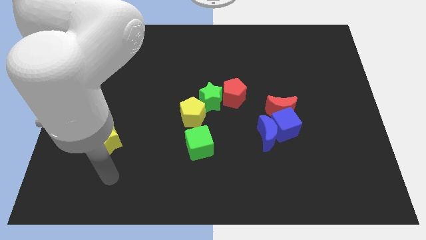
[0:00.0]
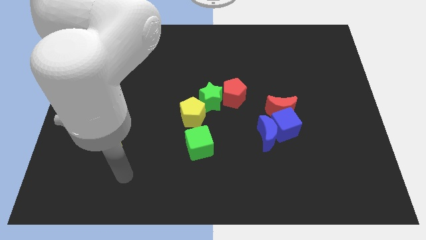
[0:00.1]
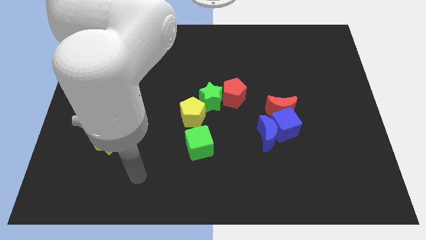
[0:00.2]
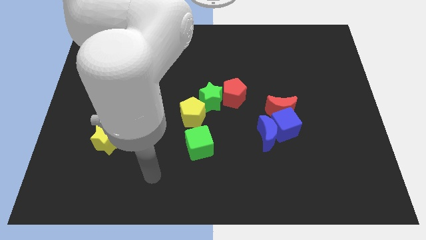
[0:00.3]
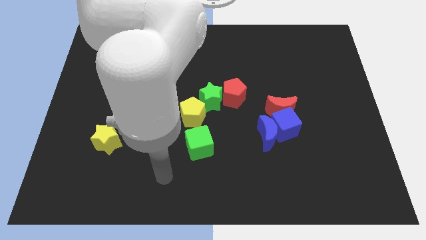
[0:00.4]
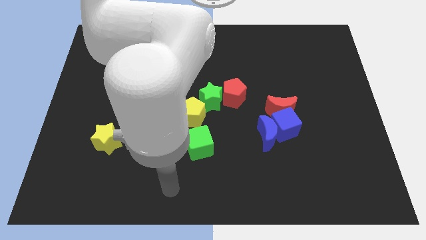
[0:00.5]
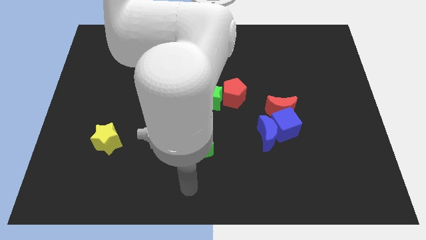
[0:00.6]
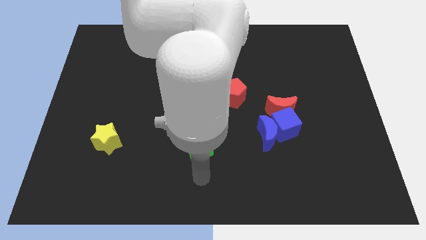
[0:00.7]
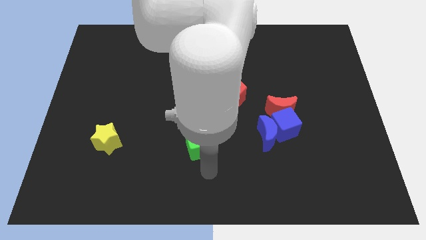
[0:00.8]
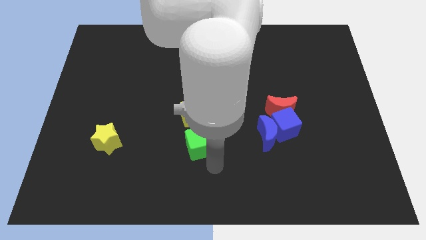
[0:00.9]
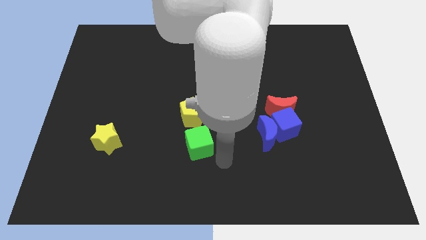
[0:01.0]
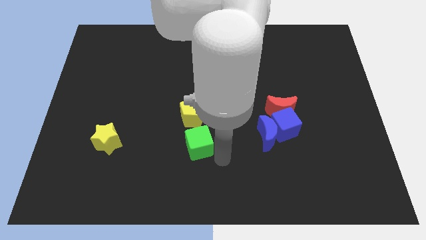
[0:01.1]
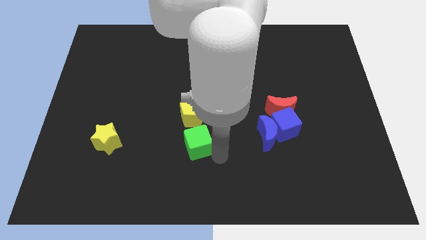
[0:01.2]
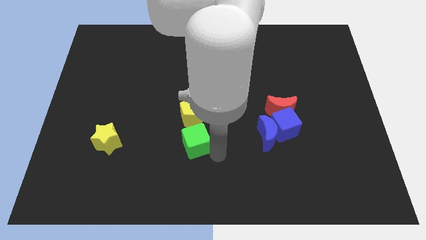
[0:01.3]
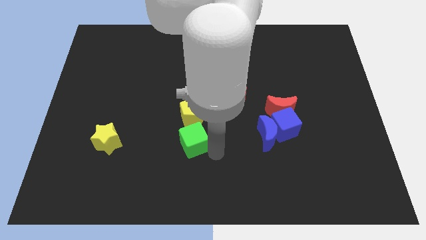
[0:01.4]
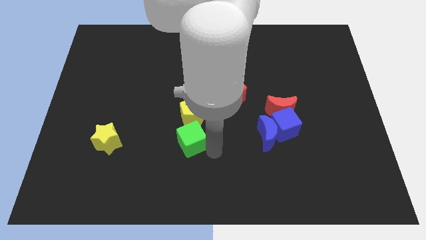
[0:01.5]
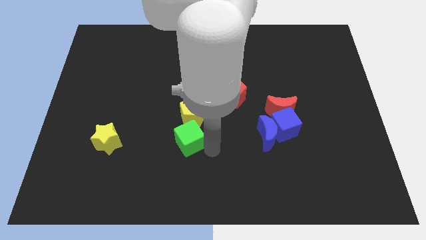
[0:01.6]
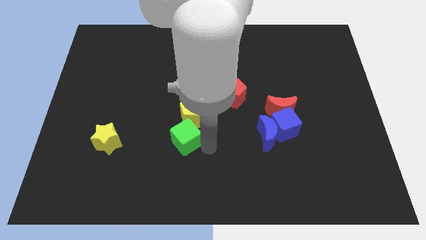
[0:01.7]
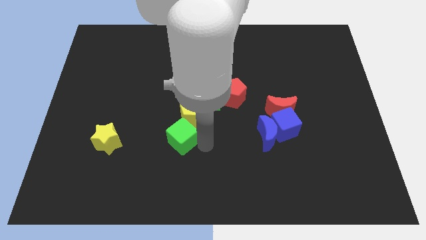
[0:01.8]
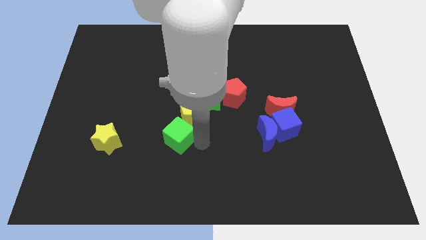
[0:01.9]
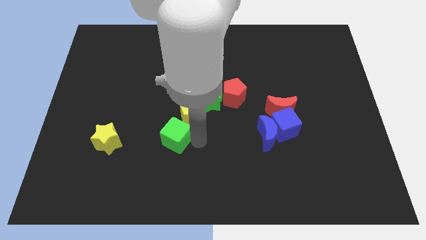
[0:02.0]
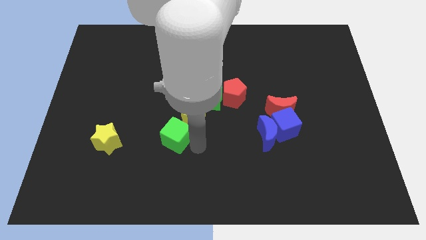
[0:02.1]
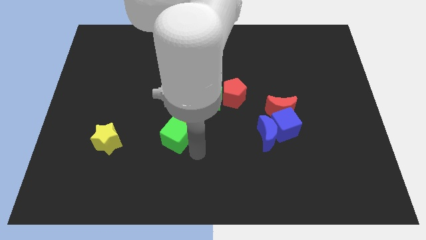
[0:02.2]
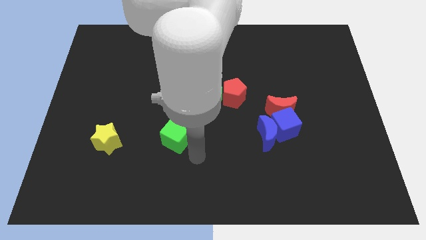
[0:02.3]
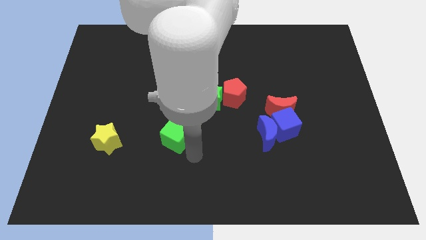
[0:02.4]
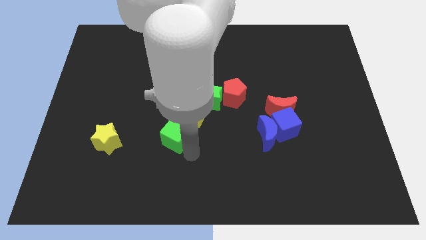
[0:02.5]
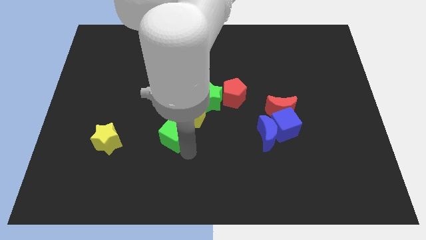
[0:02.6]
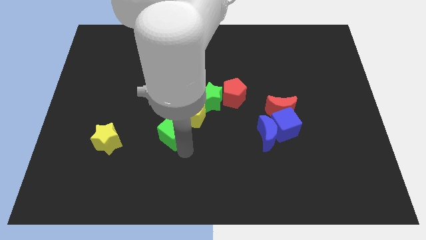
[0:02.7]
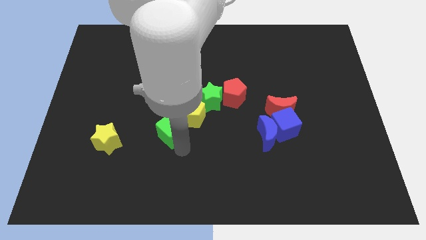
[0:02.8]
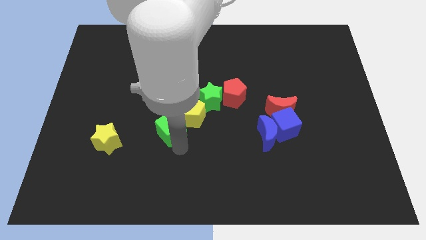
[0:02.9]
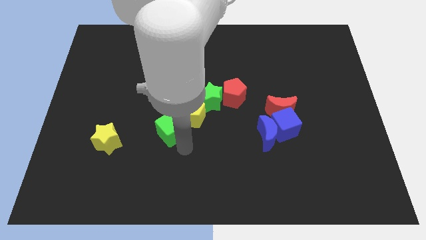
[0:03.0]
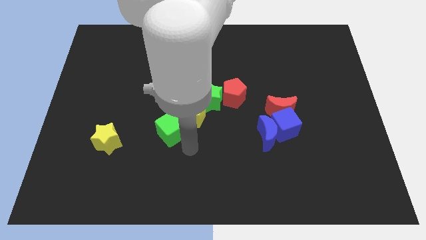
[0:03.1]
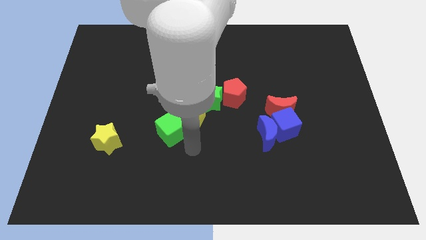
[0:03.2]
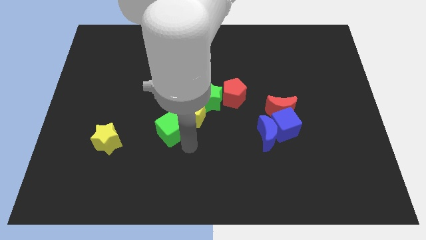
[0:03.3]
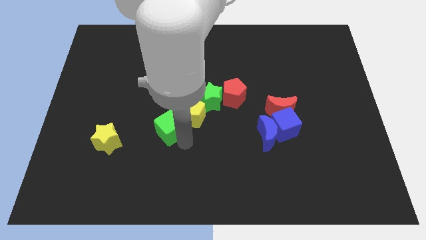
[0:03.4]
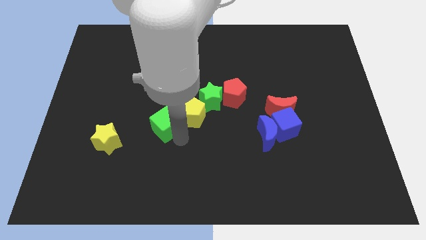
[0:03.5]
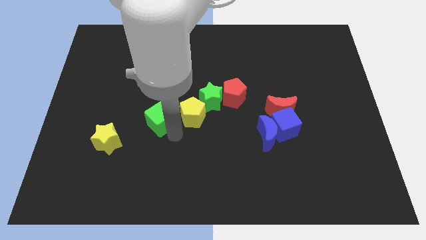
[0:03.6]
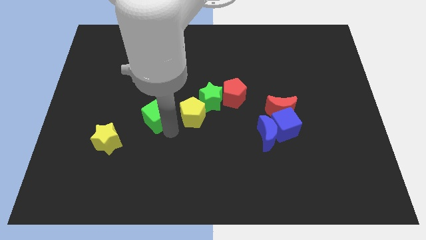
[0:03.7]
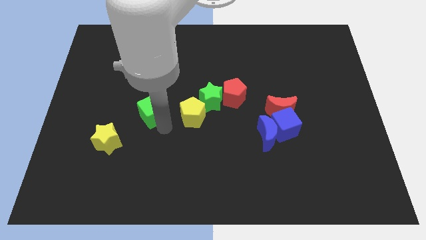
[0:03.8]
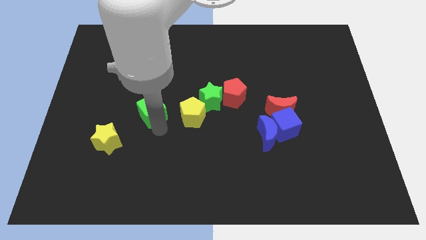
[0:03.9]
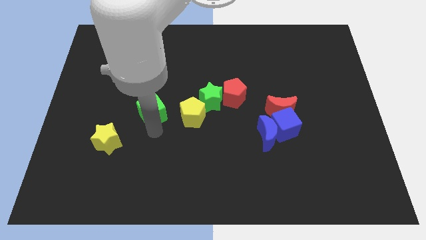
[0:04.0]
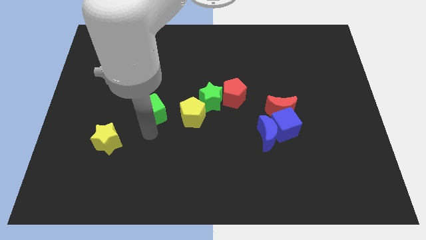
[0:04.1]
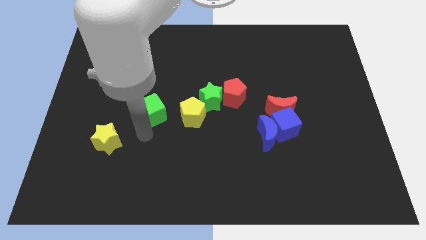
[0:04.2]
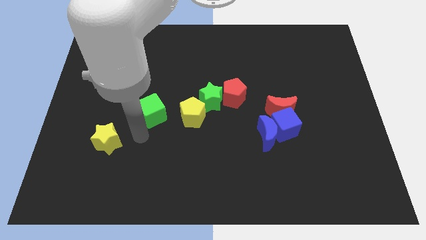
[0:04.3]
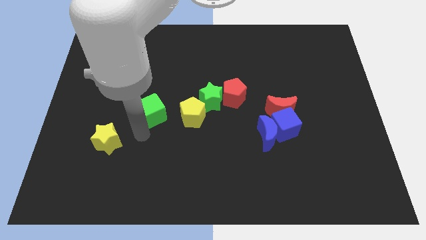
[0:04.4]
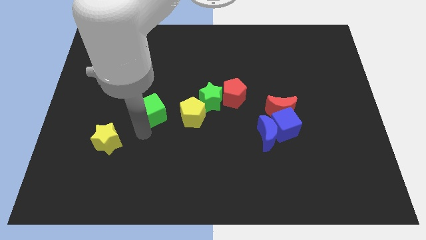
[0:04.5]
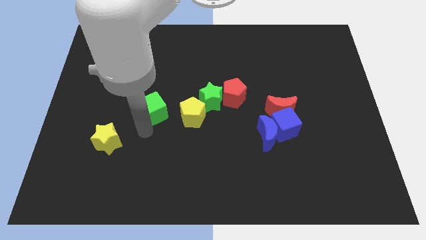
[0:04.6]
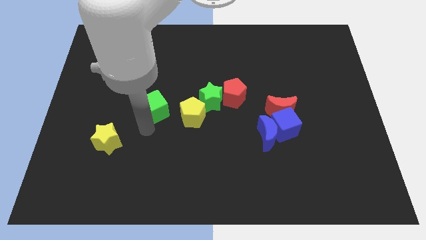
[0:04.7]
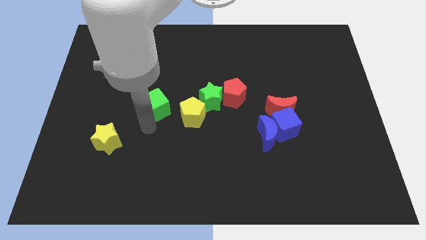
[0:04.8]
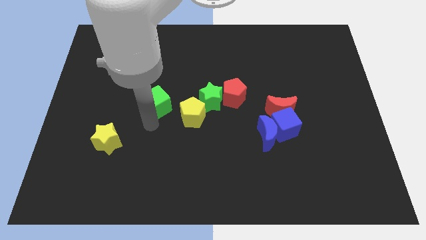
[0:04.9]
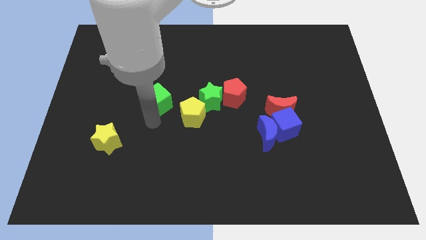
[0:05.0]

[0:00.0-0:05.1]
slide the green cube upwards a little bit

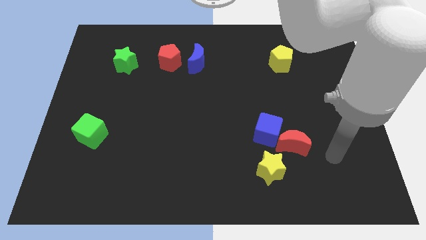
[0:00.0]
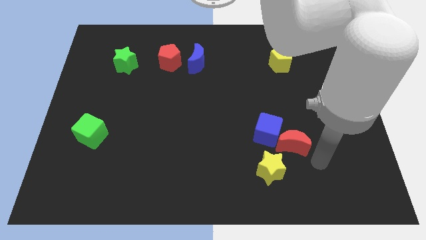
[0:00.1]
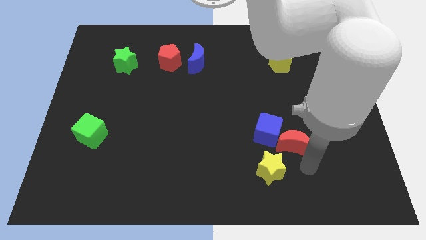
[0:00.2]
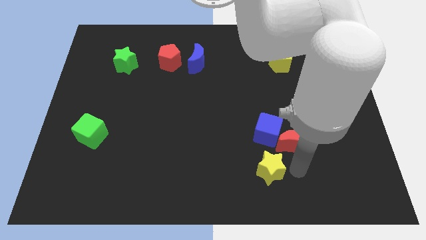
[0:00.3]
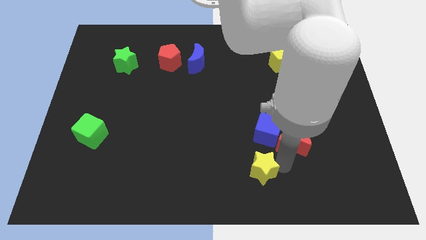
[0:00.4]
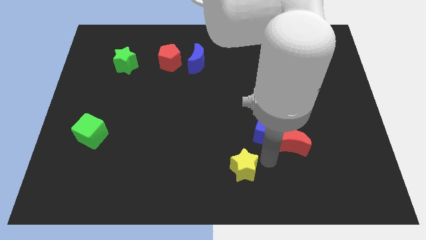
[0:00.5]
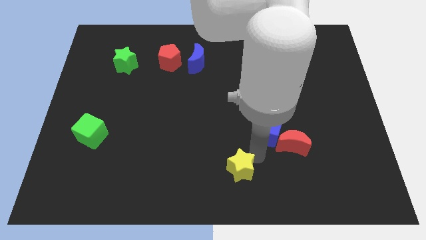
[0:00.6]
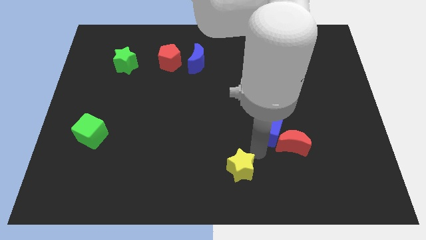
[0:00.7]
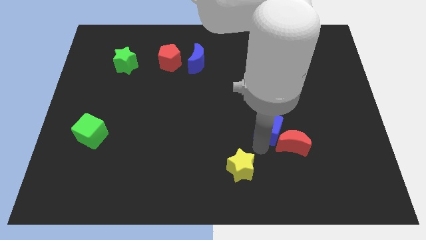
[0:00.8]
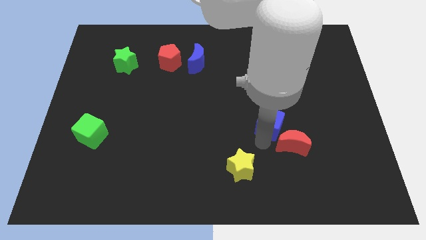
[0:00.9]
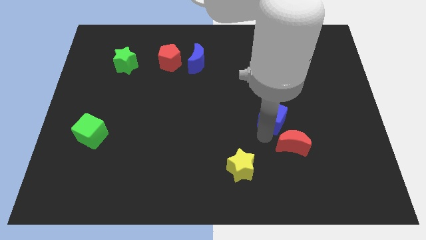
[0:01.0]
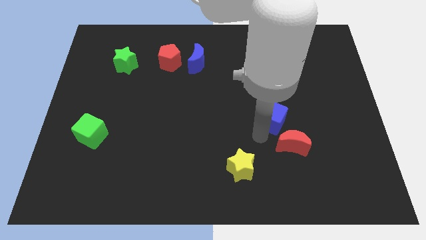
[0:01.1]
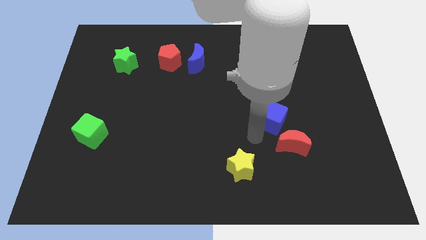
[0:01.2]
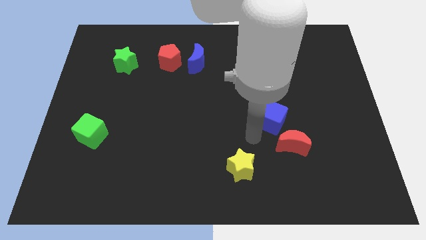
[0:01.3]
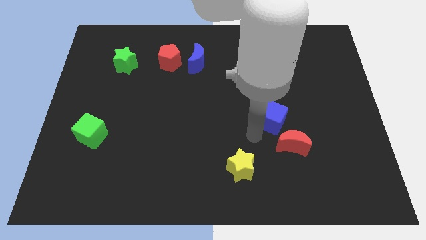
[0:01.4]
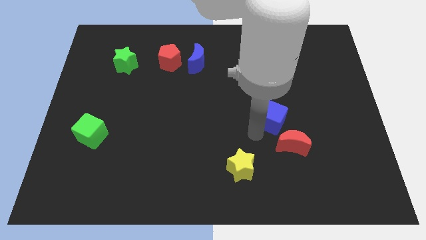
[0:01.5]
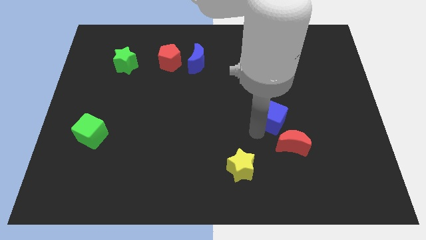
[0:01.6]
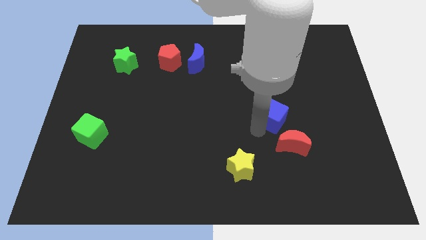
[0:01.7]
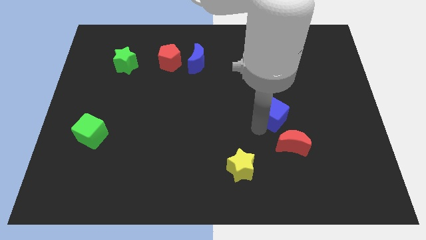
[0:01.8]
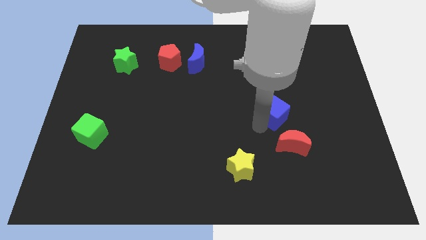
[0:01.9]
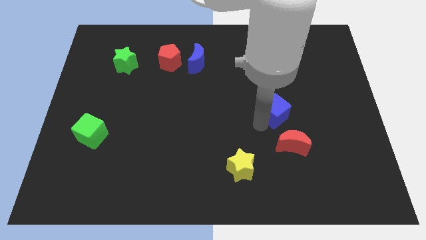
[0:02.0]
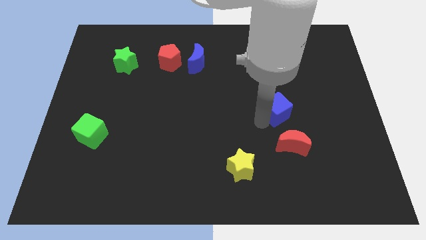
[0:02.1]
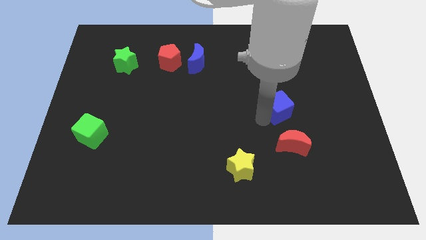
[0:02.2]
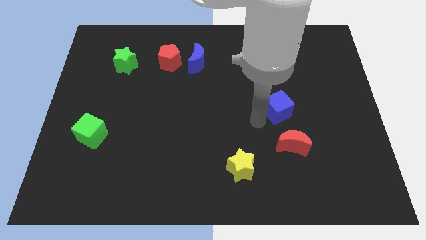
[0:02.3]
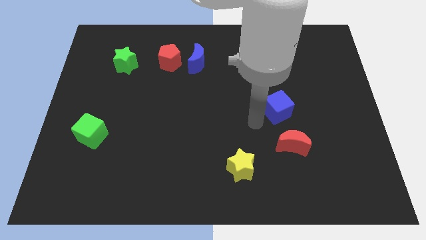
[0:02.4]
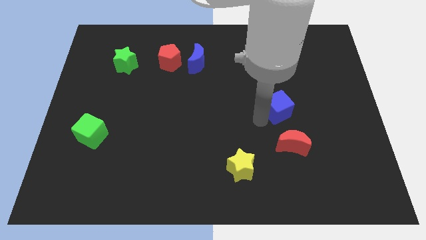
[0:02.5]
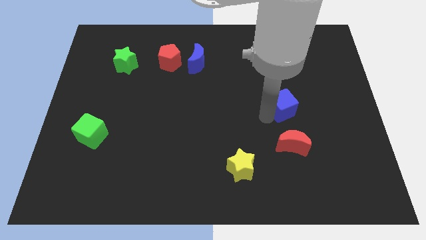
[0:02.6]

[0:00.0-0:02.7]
move the blue cube upwards and right slightly

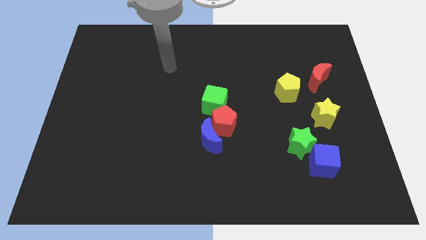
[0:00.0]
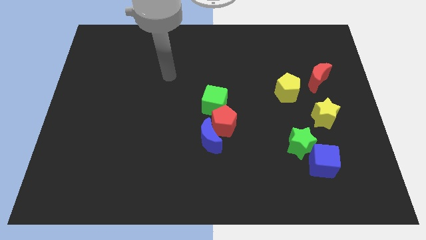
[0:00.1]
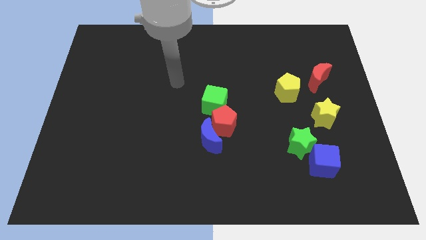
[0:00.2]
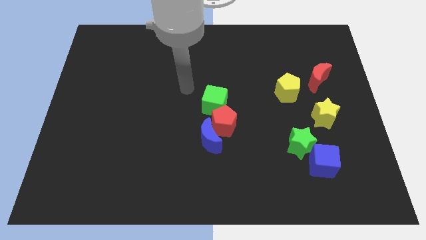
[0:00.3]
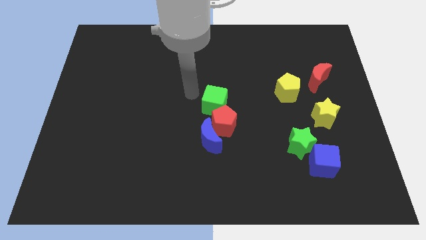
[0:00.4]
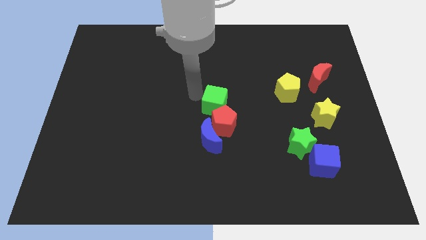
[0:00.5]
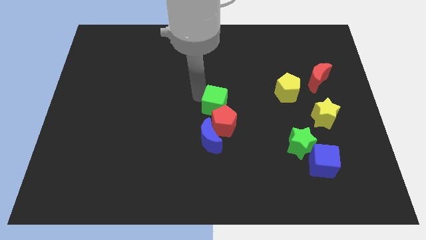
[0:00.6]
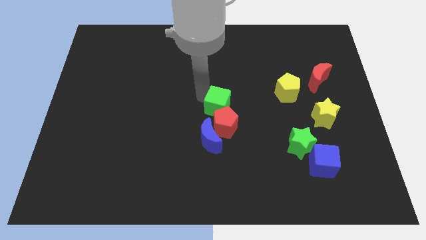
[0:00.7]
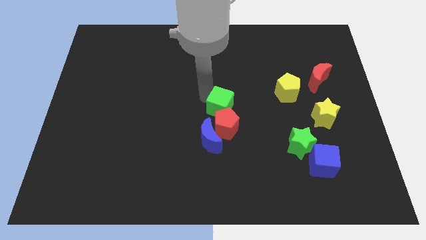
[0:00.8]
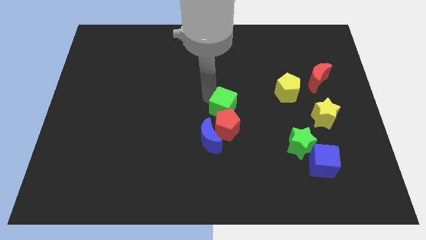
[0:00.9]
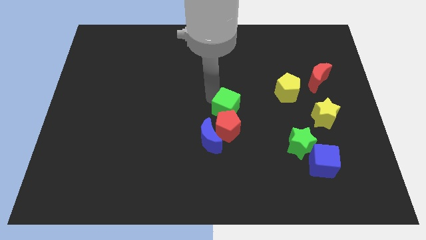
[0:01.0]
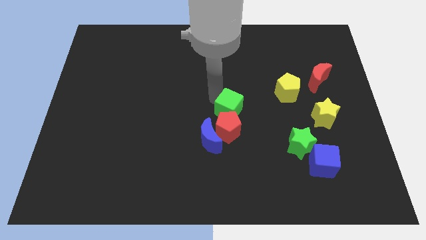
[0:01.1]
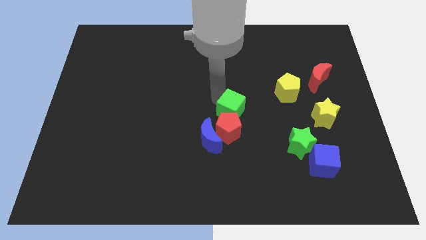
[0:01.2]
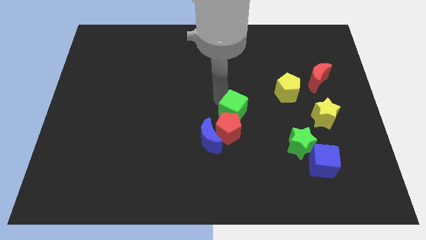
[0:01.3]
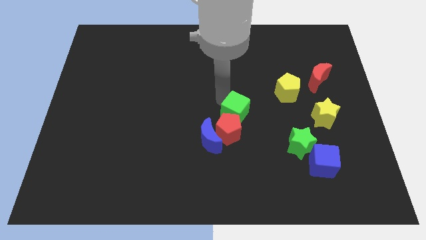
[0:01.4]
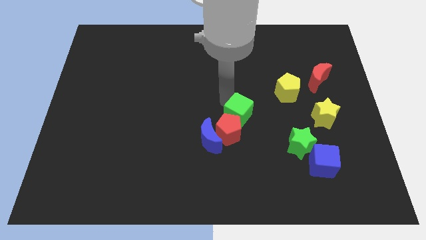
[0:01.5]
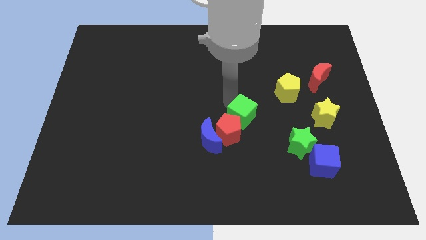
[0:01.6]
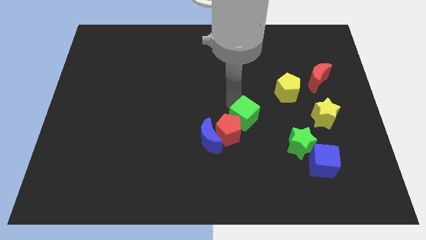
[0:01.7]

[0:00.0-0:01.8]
slightly push the green cube downwards and then right
